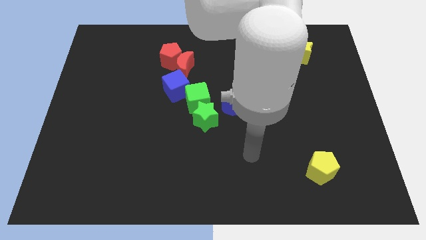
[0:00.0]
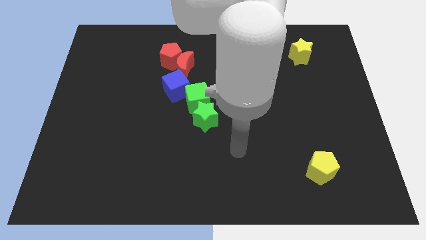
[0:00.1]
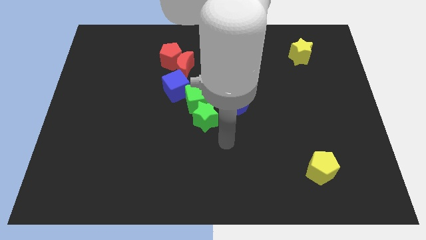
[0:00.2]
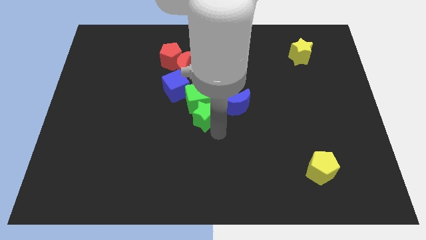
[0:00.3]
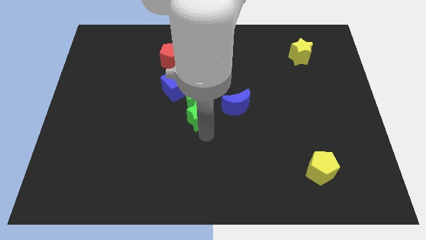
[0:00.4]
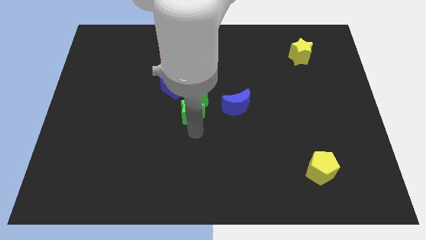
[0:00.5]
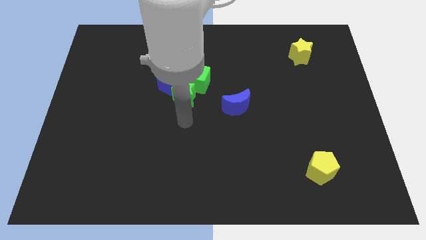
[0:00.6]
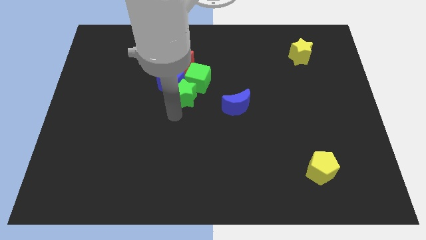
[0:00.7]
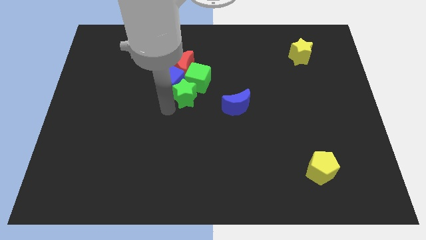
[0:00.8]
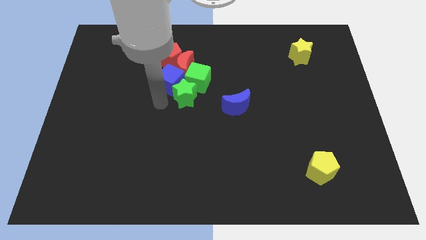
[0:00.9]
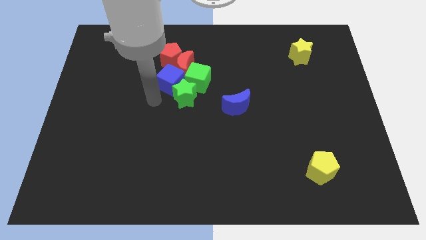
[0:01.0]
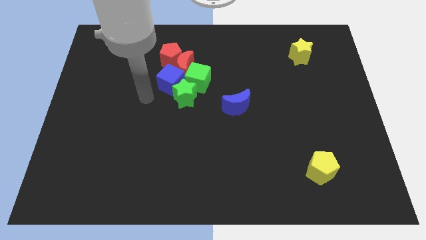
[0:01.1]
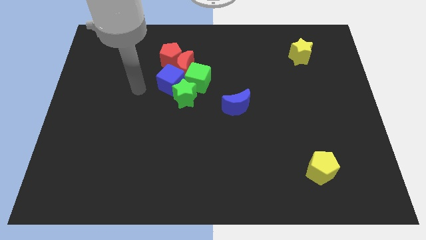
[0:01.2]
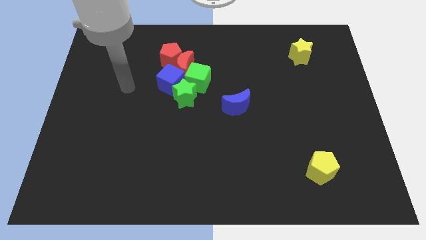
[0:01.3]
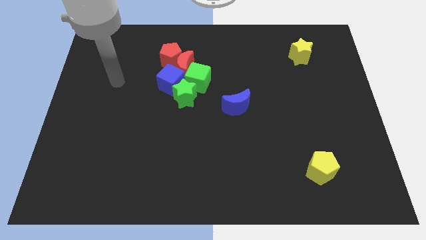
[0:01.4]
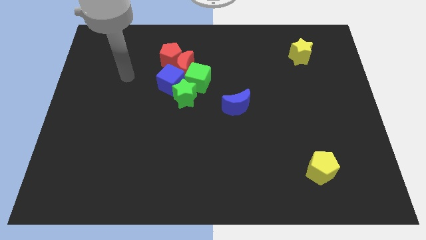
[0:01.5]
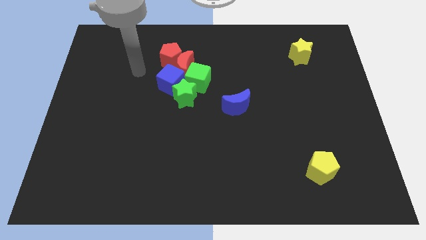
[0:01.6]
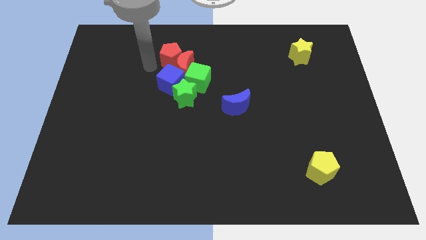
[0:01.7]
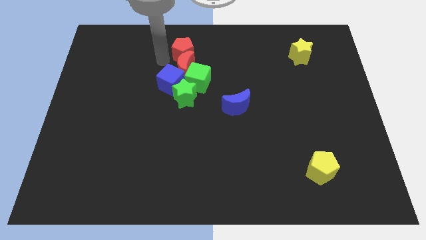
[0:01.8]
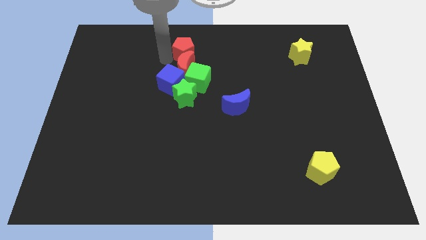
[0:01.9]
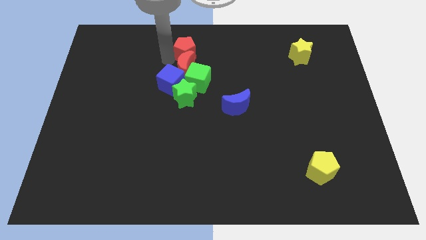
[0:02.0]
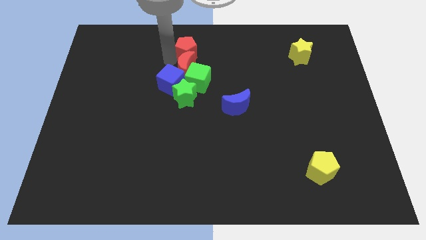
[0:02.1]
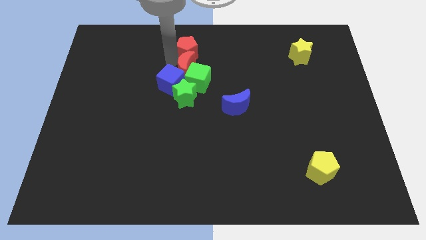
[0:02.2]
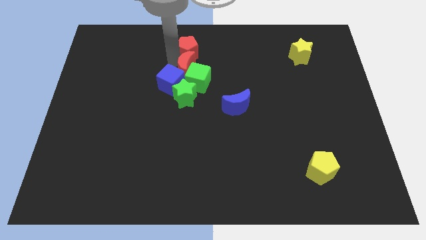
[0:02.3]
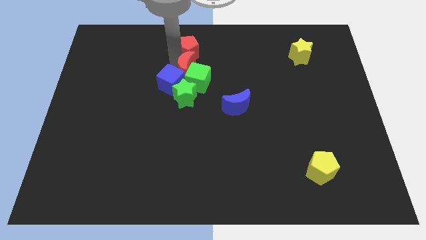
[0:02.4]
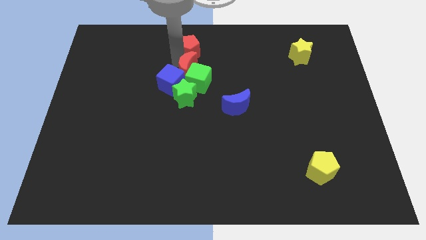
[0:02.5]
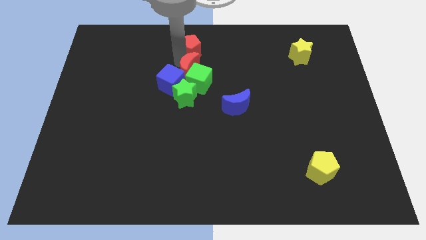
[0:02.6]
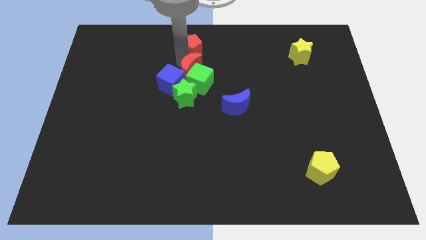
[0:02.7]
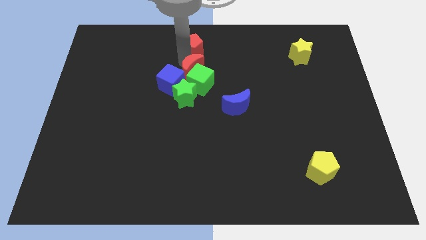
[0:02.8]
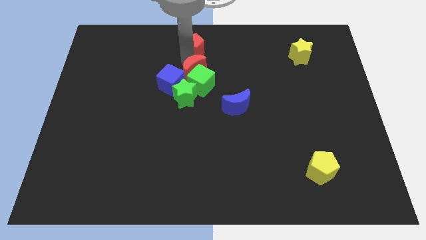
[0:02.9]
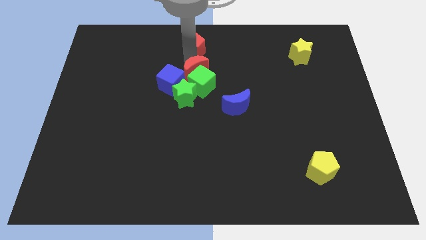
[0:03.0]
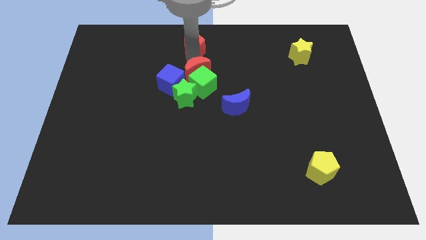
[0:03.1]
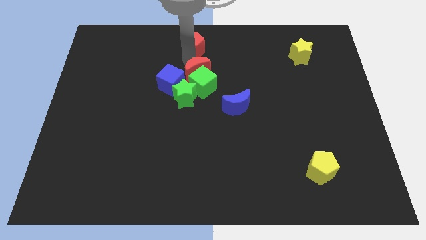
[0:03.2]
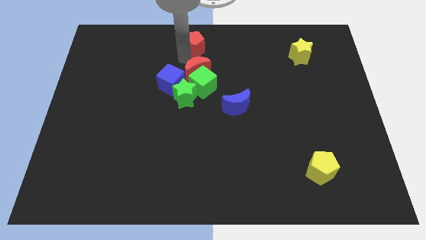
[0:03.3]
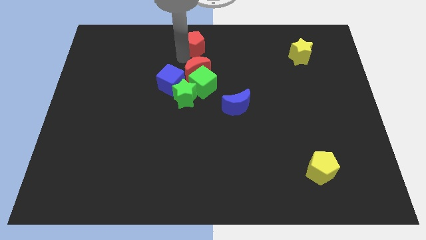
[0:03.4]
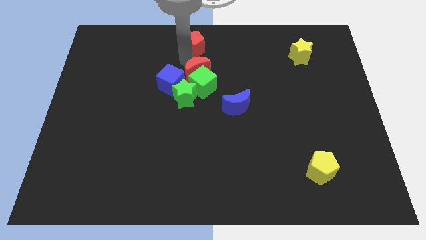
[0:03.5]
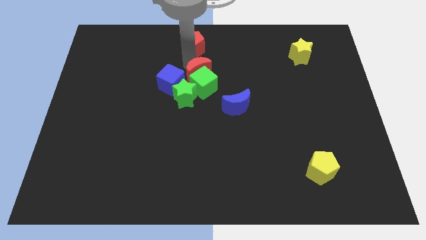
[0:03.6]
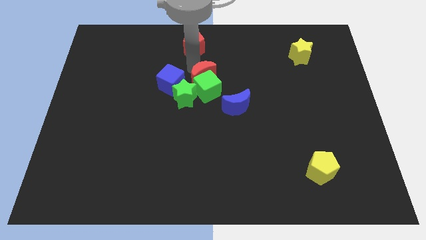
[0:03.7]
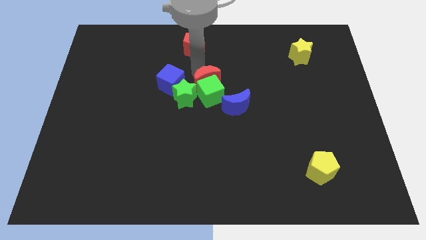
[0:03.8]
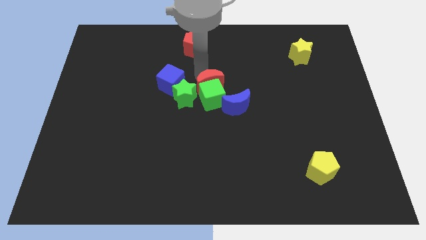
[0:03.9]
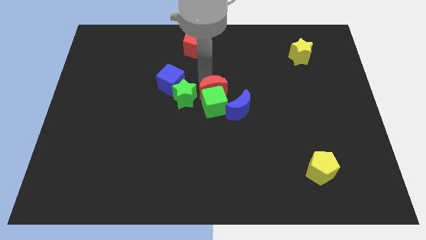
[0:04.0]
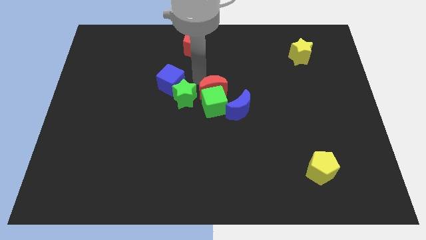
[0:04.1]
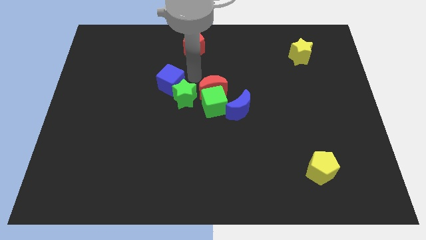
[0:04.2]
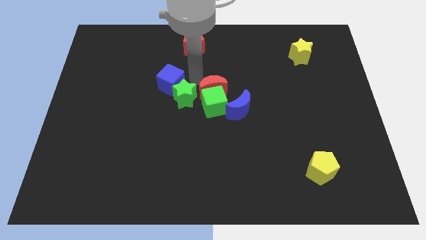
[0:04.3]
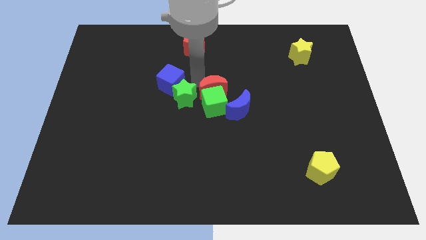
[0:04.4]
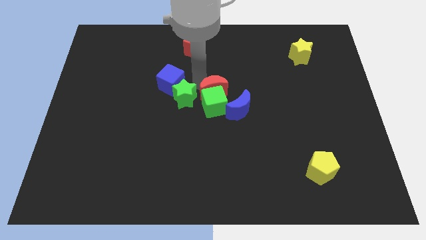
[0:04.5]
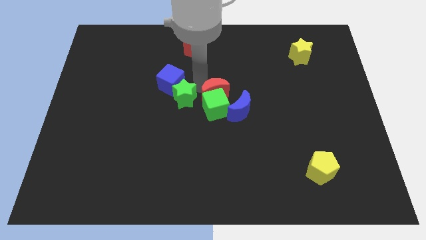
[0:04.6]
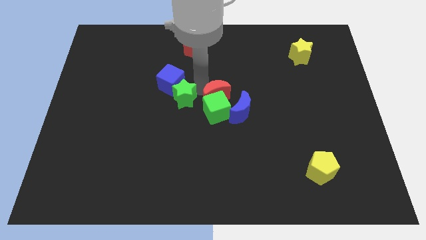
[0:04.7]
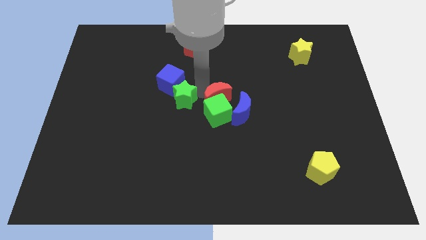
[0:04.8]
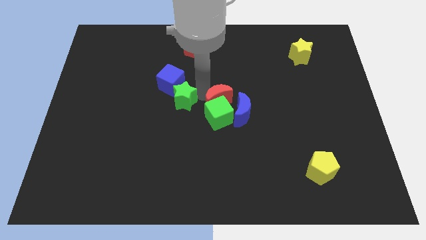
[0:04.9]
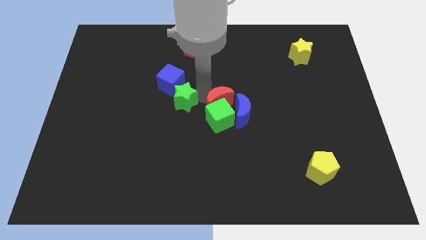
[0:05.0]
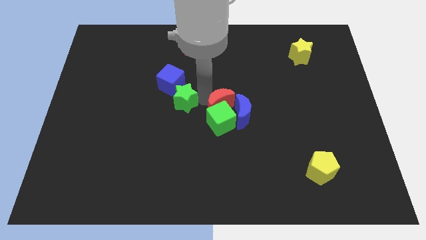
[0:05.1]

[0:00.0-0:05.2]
move the red moon close to the blue moon

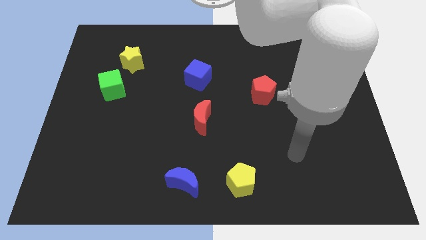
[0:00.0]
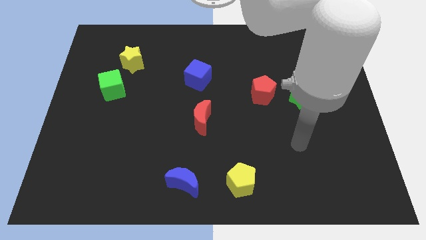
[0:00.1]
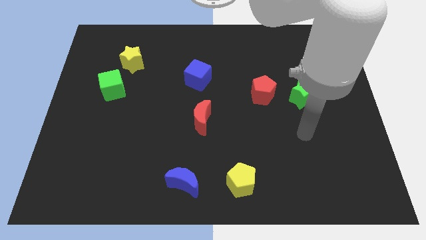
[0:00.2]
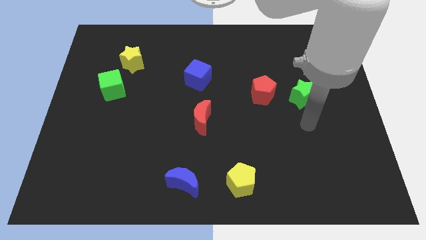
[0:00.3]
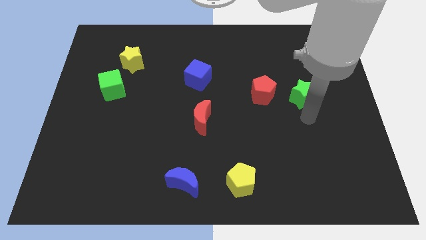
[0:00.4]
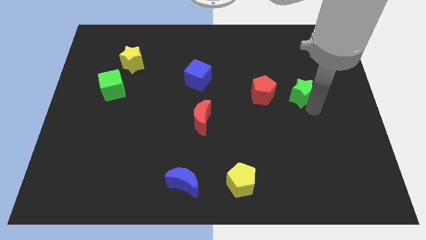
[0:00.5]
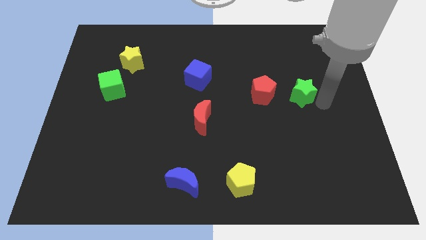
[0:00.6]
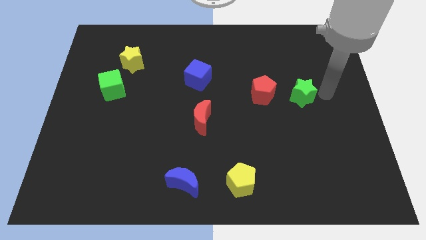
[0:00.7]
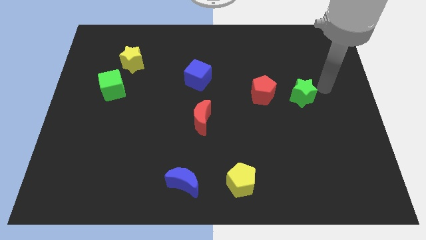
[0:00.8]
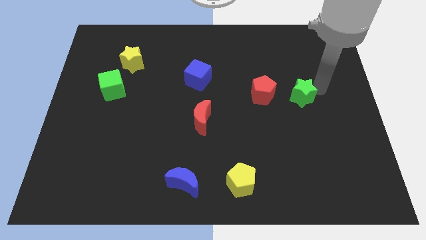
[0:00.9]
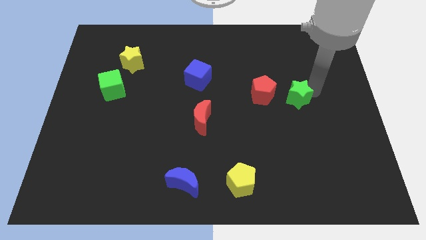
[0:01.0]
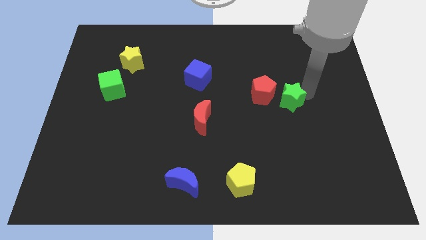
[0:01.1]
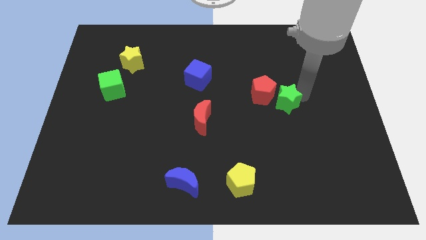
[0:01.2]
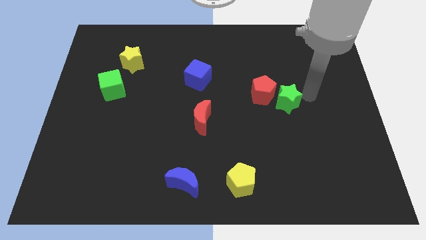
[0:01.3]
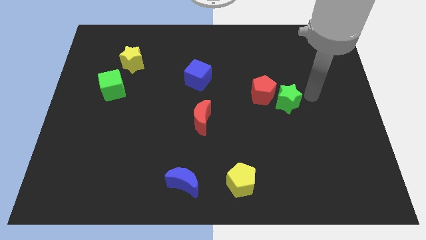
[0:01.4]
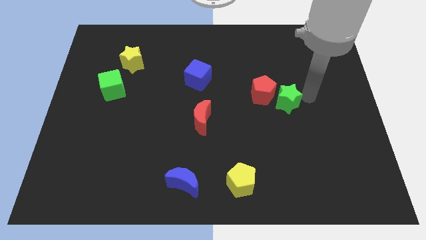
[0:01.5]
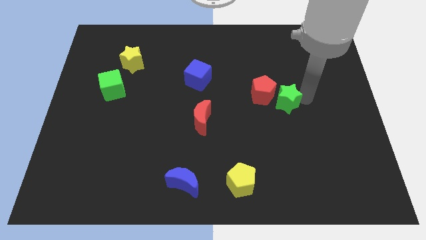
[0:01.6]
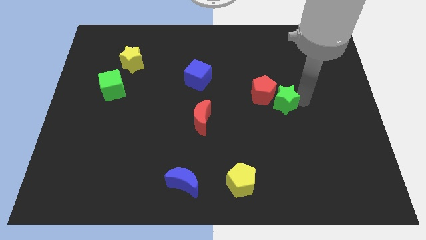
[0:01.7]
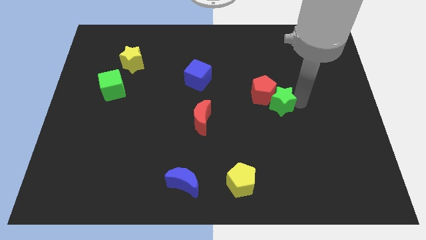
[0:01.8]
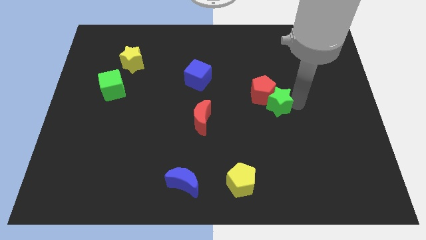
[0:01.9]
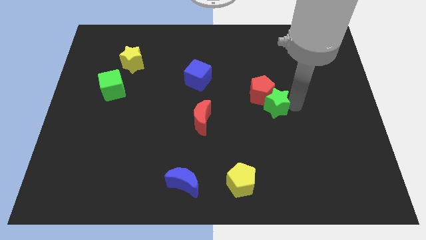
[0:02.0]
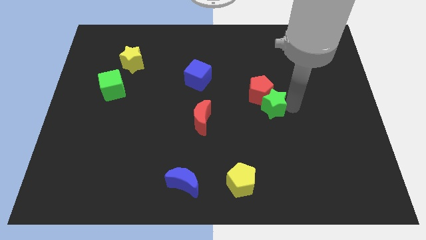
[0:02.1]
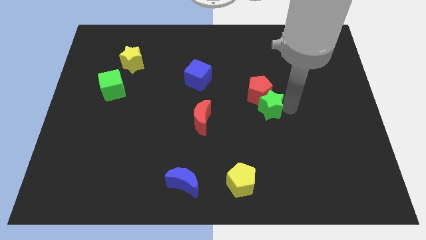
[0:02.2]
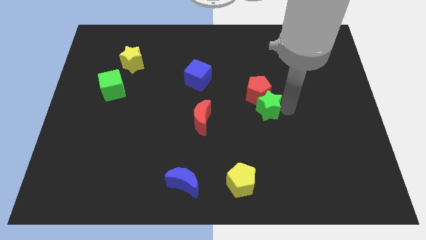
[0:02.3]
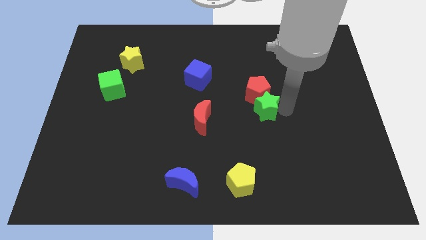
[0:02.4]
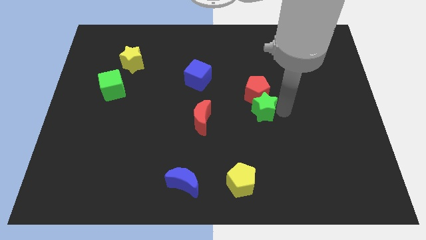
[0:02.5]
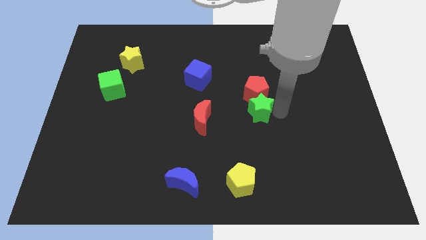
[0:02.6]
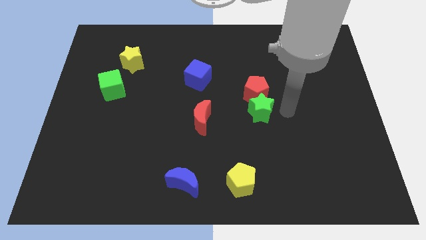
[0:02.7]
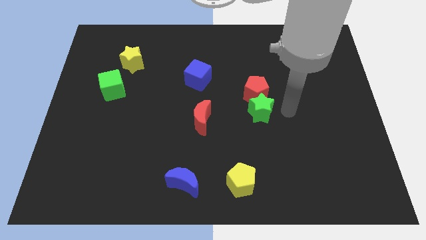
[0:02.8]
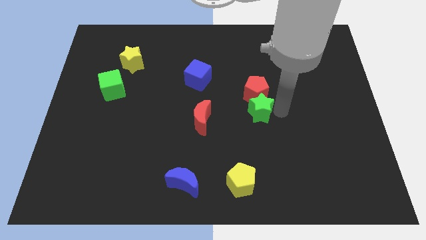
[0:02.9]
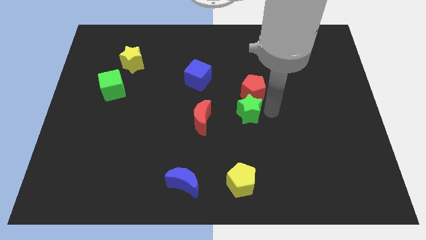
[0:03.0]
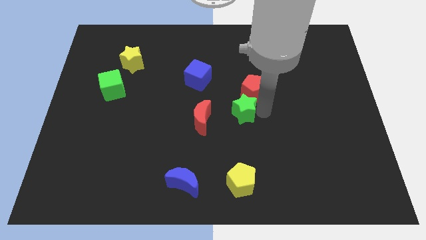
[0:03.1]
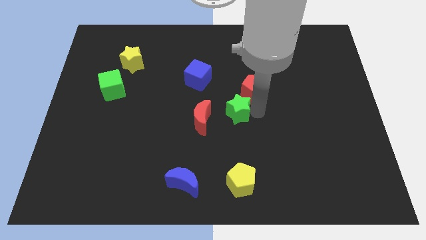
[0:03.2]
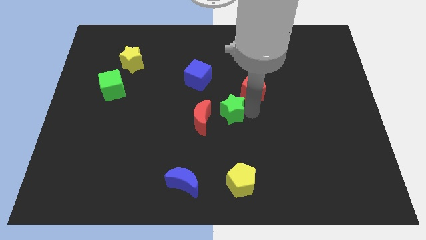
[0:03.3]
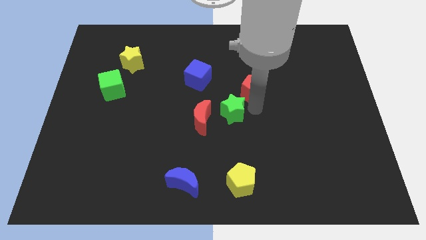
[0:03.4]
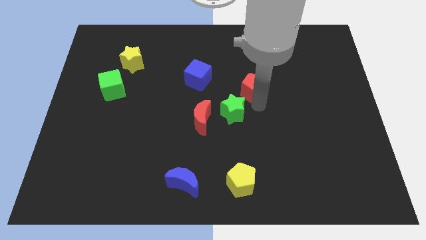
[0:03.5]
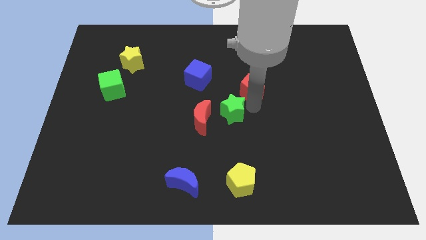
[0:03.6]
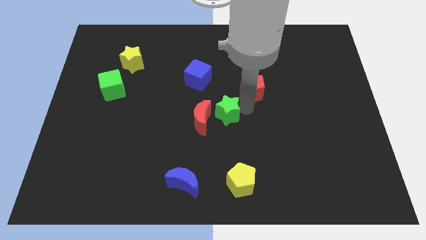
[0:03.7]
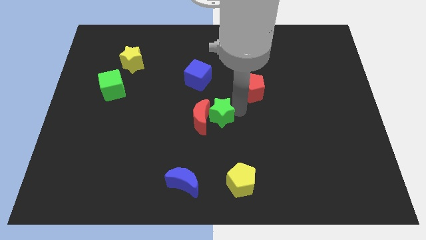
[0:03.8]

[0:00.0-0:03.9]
push the green star close to the red moon
